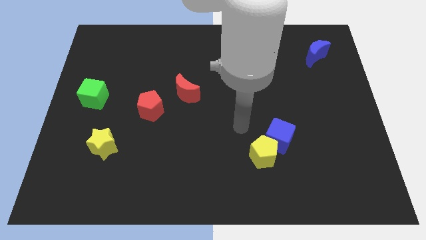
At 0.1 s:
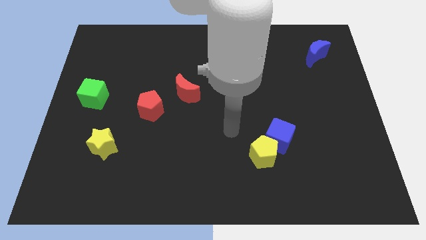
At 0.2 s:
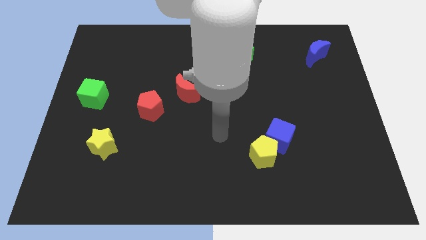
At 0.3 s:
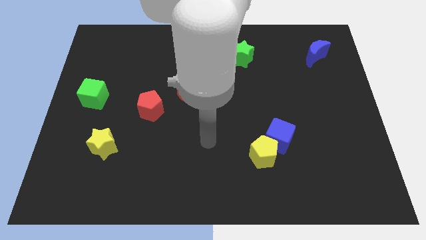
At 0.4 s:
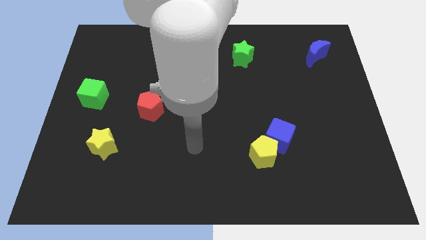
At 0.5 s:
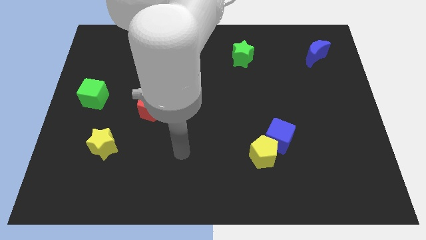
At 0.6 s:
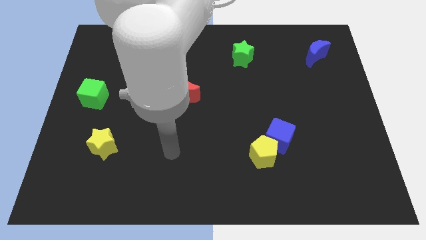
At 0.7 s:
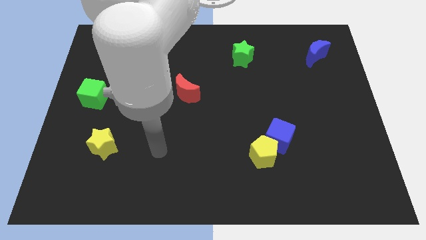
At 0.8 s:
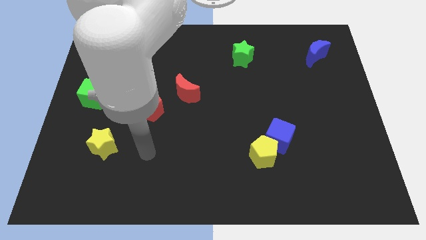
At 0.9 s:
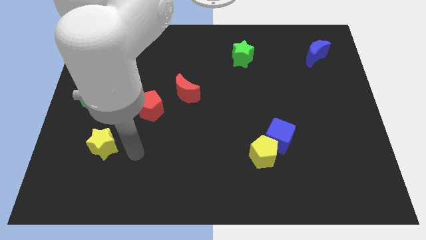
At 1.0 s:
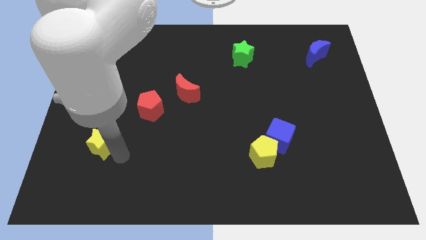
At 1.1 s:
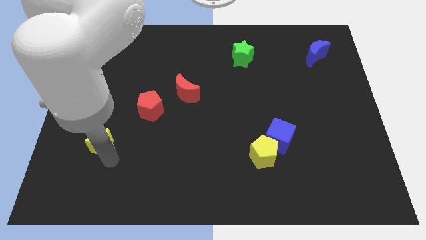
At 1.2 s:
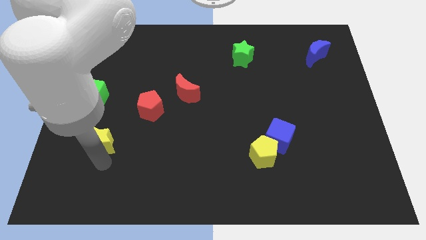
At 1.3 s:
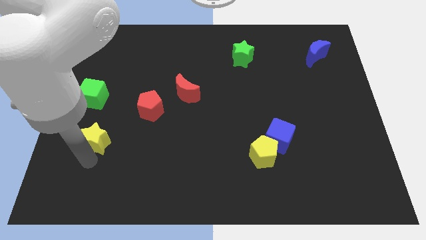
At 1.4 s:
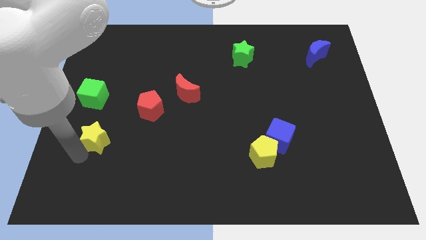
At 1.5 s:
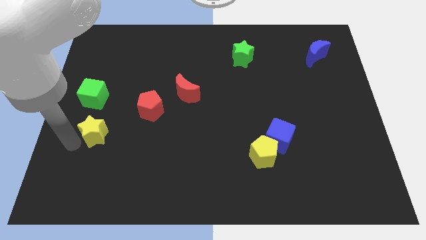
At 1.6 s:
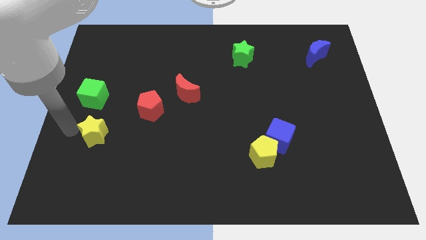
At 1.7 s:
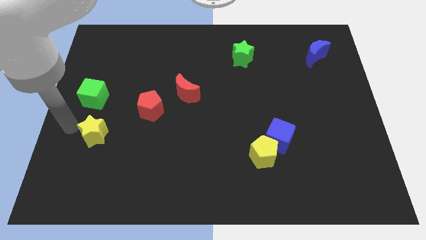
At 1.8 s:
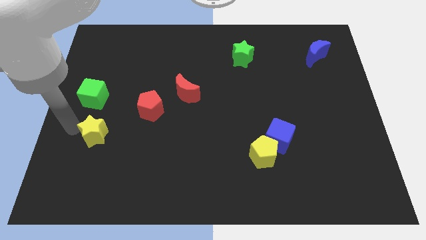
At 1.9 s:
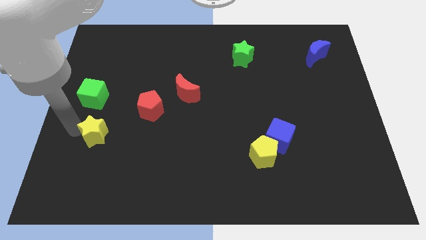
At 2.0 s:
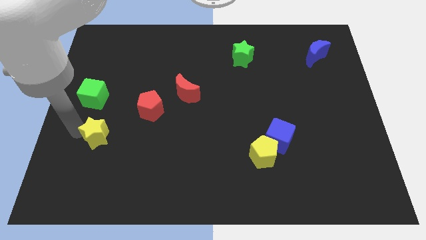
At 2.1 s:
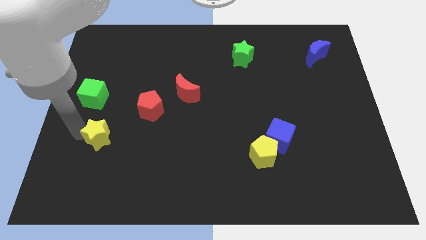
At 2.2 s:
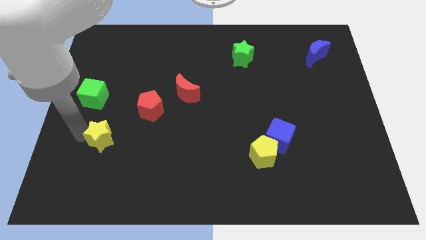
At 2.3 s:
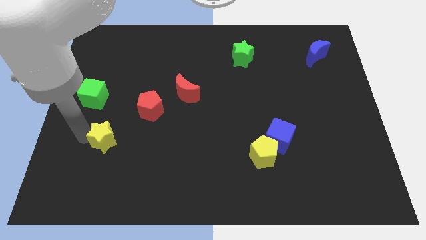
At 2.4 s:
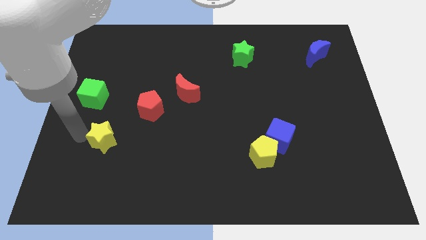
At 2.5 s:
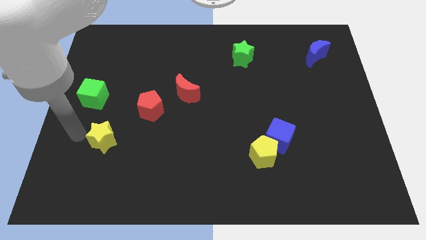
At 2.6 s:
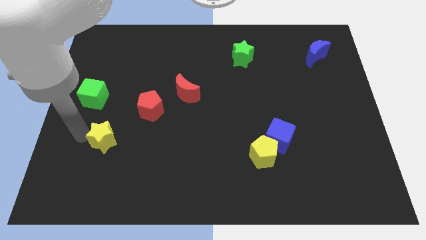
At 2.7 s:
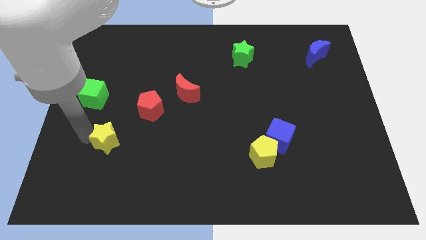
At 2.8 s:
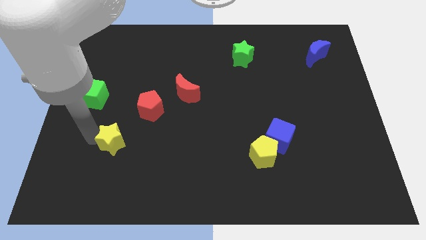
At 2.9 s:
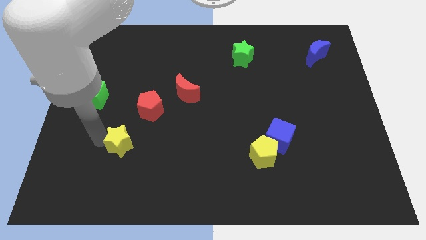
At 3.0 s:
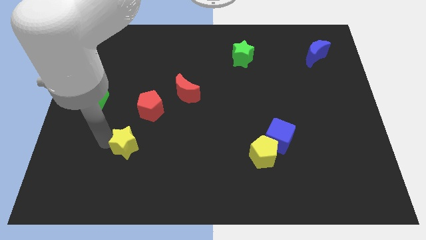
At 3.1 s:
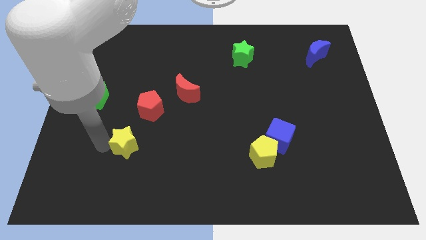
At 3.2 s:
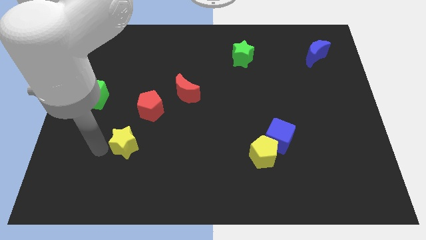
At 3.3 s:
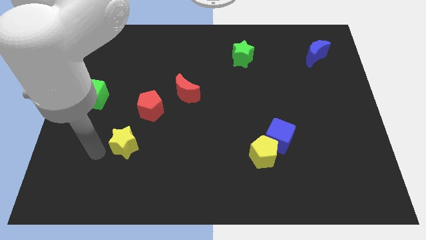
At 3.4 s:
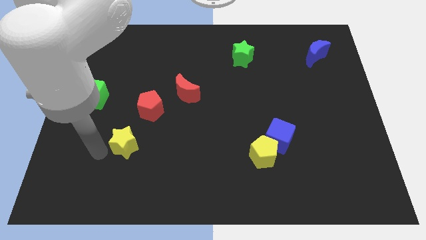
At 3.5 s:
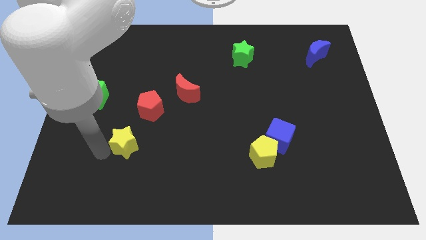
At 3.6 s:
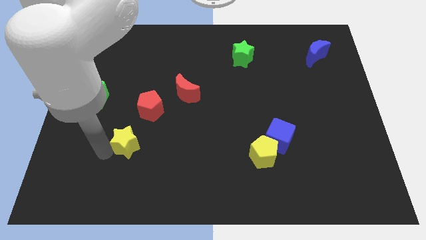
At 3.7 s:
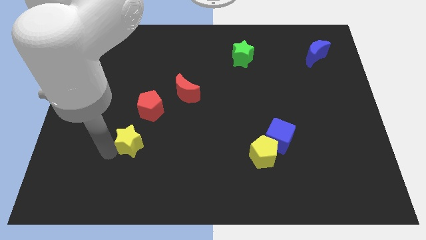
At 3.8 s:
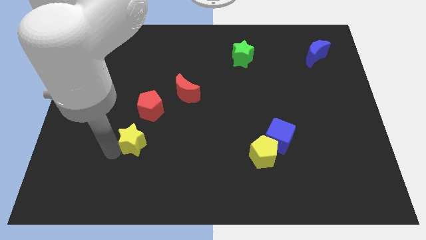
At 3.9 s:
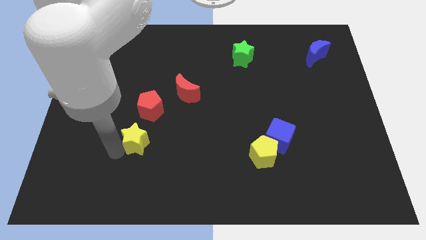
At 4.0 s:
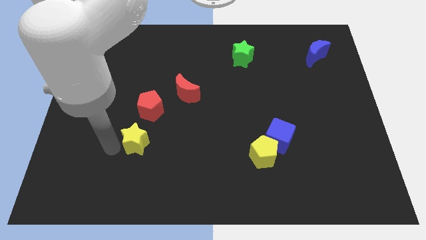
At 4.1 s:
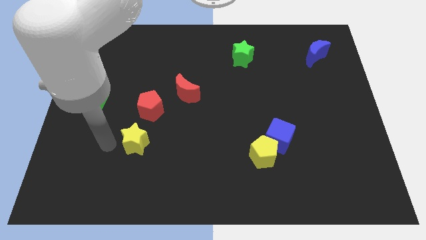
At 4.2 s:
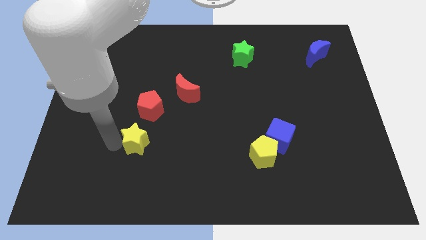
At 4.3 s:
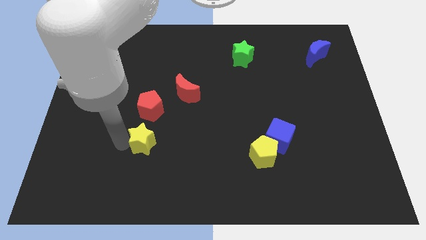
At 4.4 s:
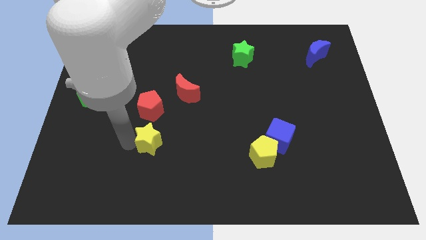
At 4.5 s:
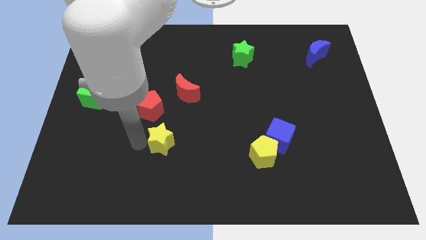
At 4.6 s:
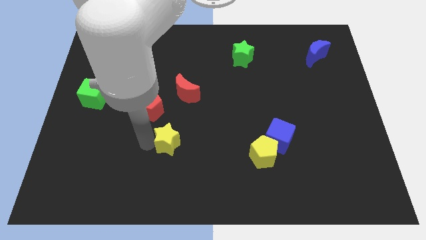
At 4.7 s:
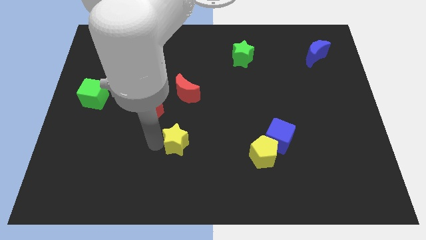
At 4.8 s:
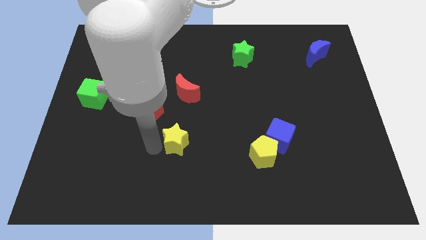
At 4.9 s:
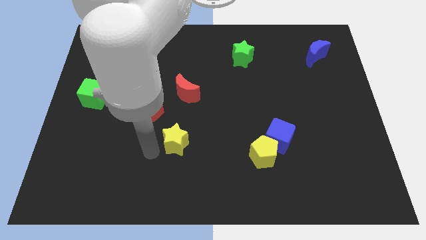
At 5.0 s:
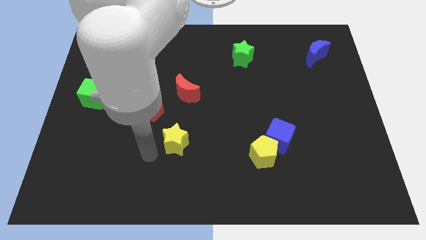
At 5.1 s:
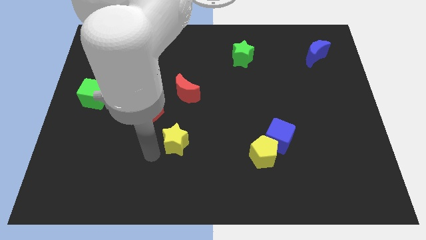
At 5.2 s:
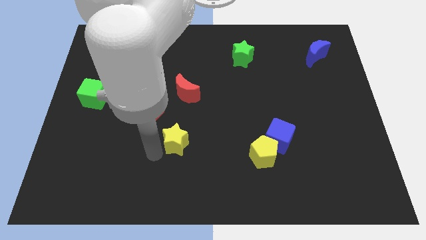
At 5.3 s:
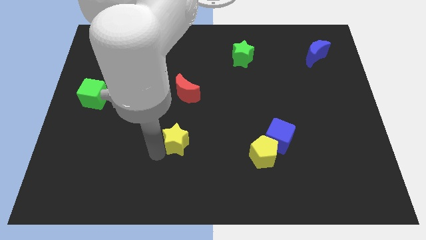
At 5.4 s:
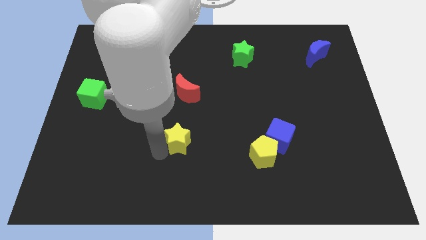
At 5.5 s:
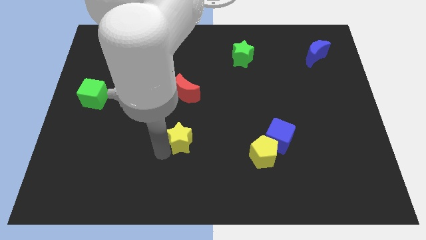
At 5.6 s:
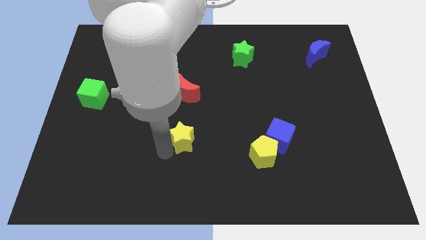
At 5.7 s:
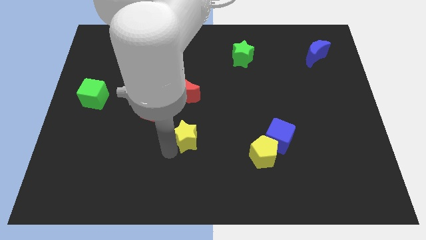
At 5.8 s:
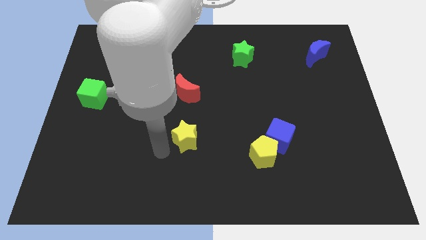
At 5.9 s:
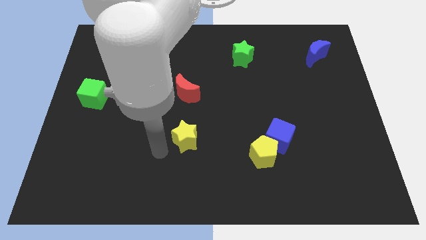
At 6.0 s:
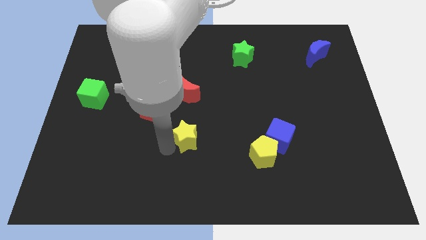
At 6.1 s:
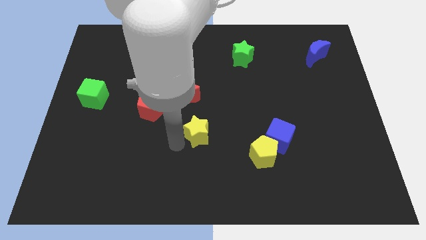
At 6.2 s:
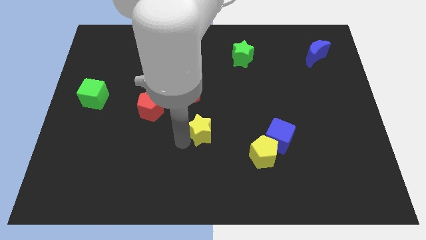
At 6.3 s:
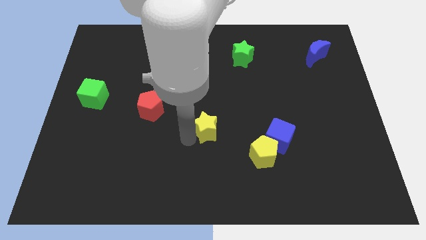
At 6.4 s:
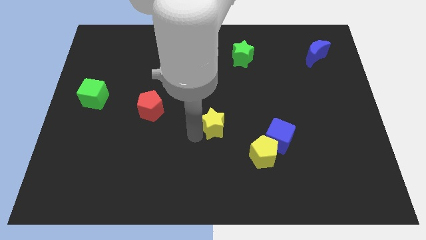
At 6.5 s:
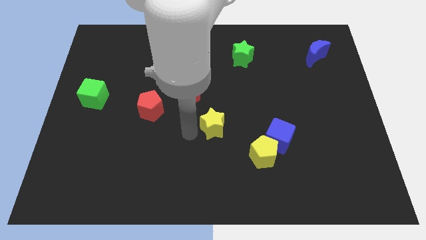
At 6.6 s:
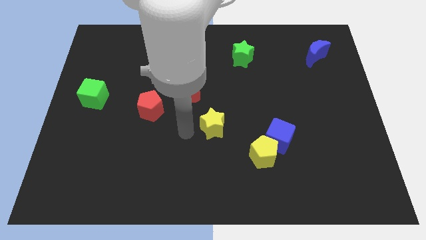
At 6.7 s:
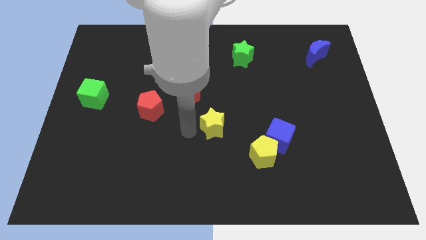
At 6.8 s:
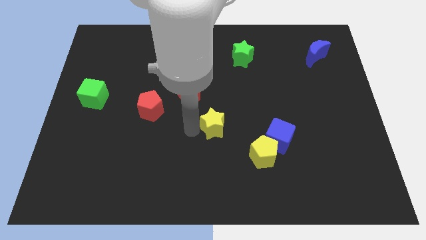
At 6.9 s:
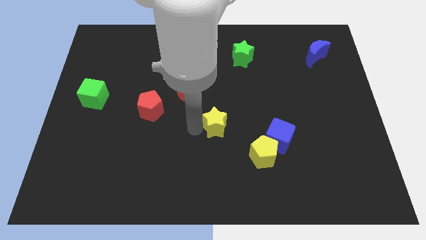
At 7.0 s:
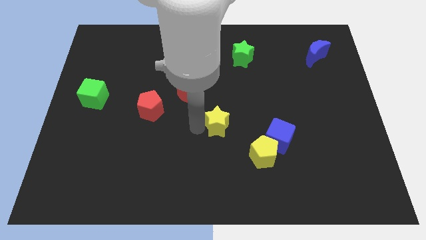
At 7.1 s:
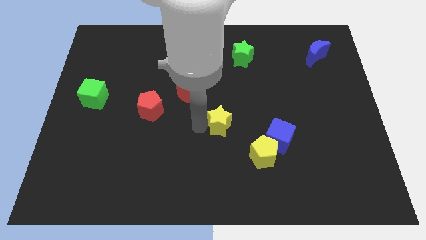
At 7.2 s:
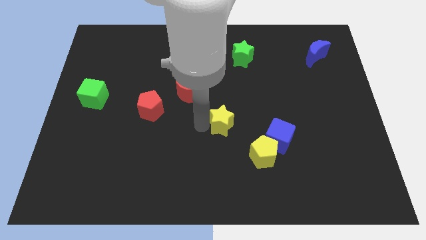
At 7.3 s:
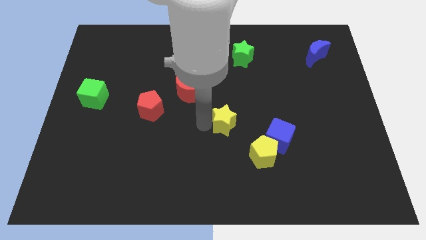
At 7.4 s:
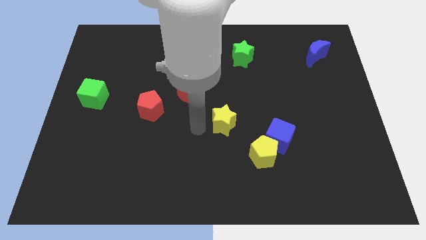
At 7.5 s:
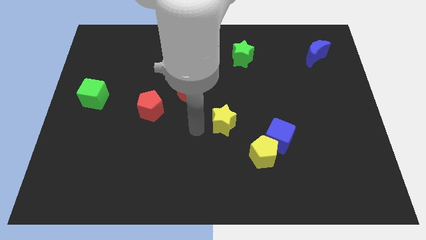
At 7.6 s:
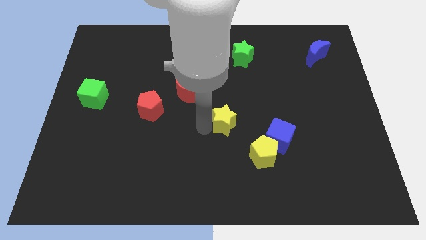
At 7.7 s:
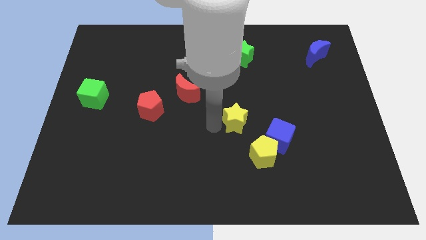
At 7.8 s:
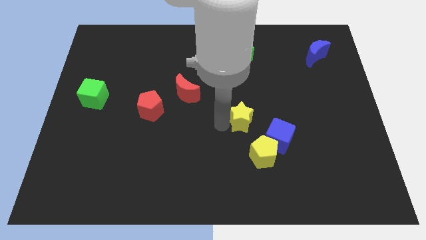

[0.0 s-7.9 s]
move the yellow star above the yellow pentagon

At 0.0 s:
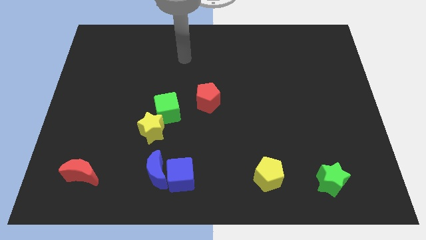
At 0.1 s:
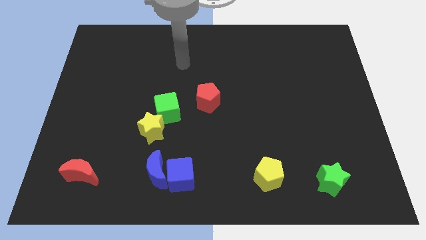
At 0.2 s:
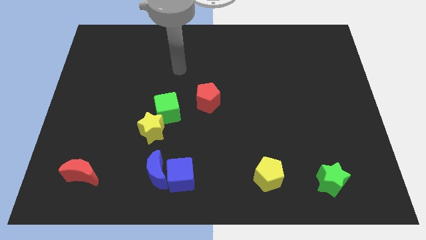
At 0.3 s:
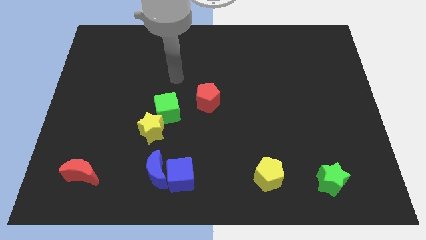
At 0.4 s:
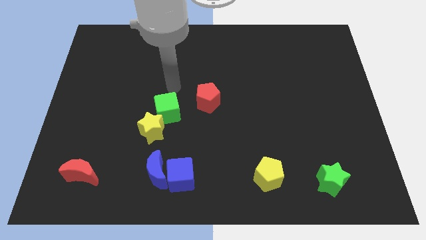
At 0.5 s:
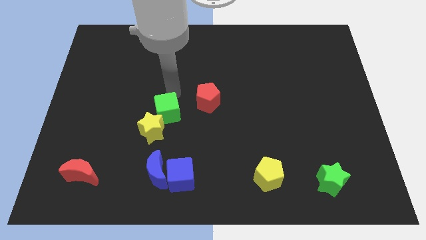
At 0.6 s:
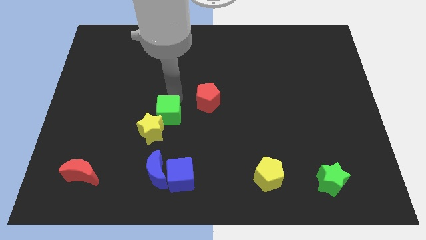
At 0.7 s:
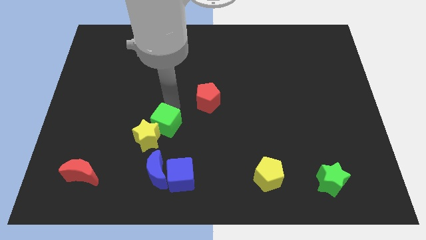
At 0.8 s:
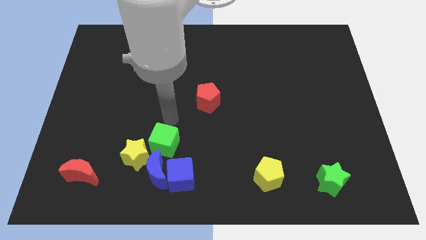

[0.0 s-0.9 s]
move the yellow star to the left of the blue moon
